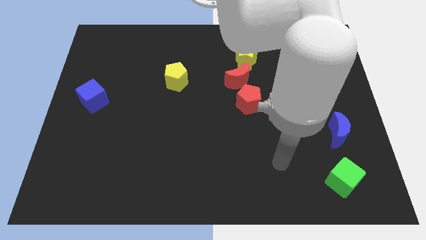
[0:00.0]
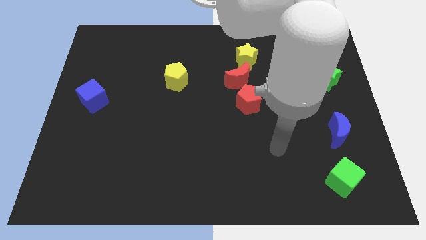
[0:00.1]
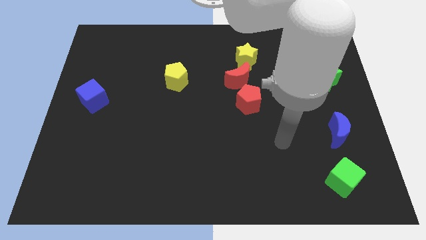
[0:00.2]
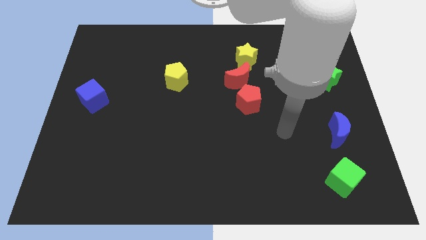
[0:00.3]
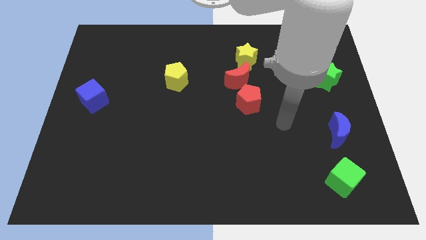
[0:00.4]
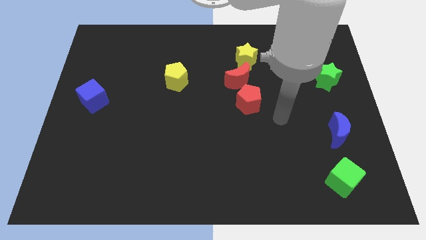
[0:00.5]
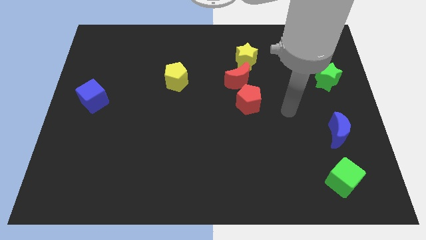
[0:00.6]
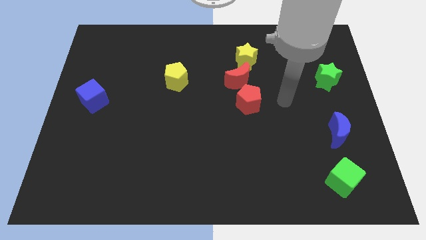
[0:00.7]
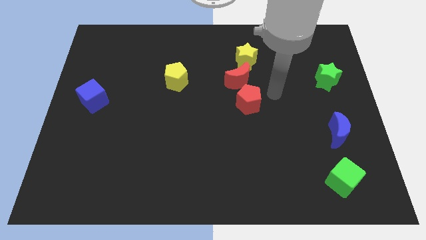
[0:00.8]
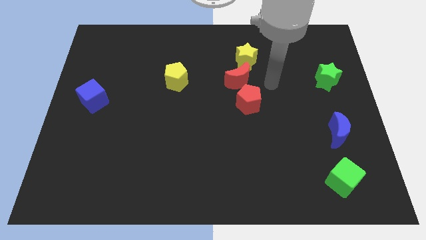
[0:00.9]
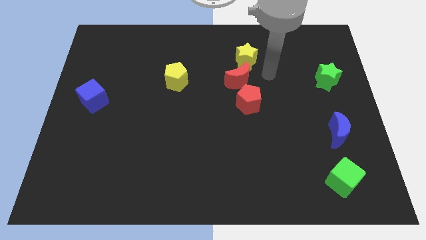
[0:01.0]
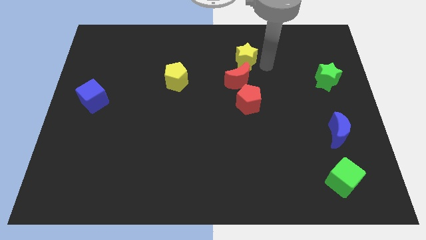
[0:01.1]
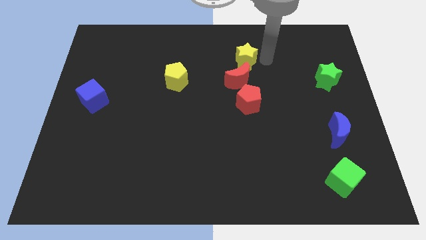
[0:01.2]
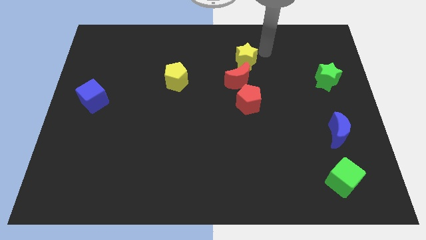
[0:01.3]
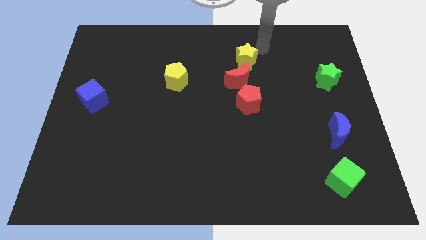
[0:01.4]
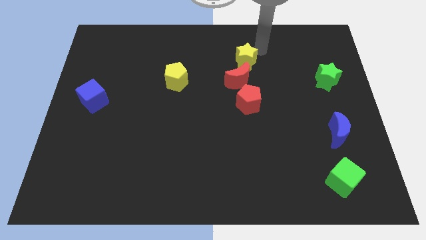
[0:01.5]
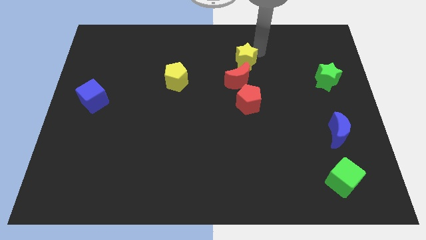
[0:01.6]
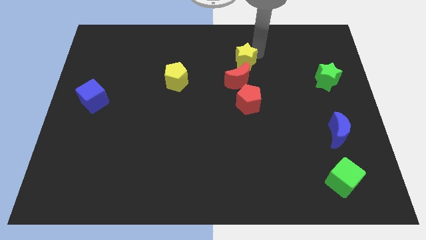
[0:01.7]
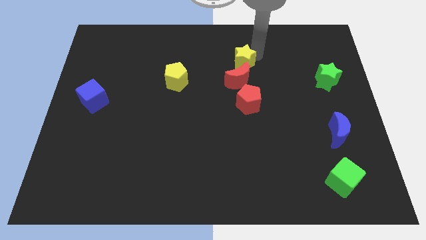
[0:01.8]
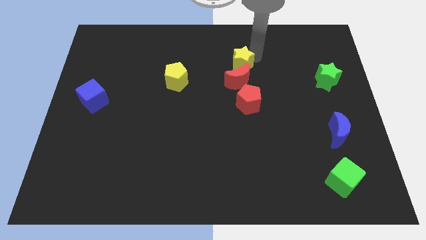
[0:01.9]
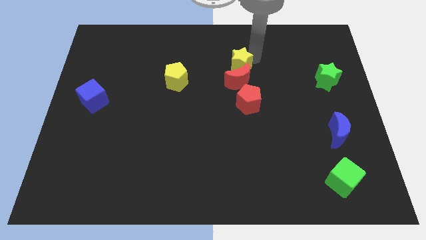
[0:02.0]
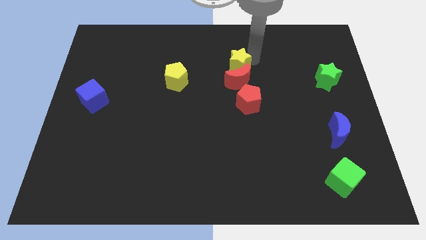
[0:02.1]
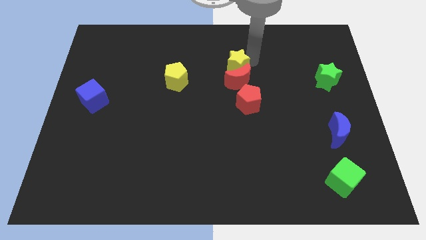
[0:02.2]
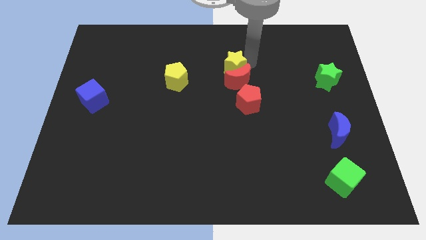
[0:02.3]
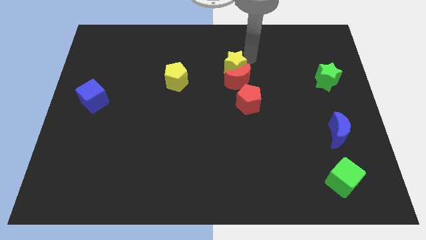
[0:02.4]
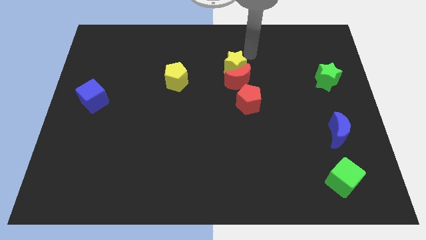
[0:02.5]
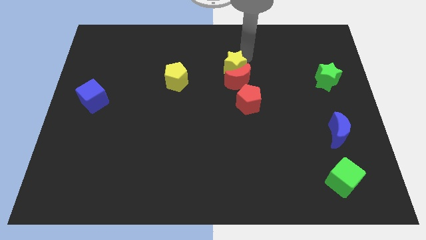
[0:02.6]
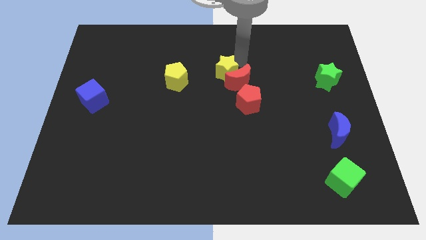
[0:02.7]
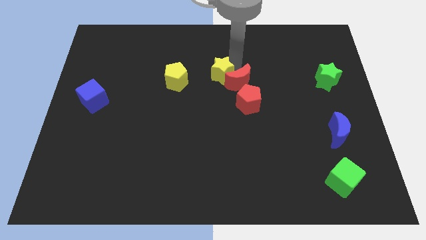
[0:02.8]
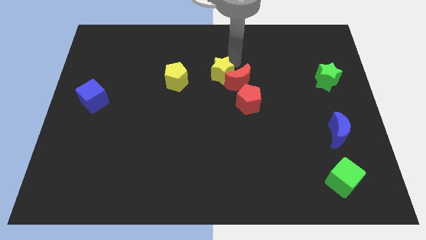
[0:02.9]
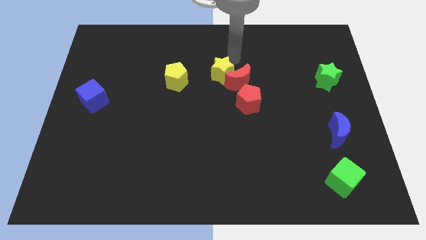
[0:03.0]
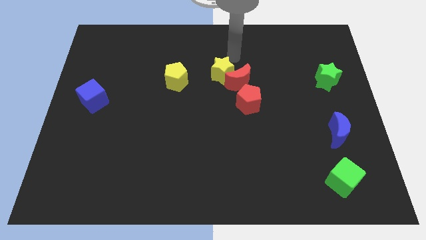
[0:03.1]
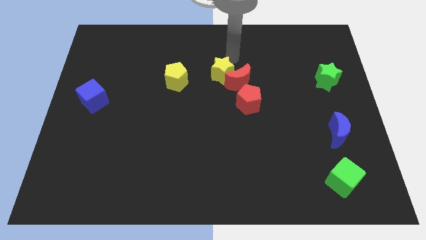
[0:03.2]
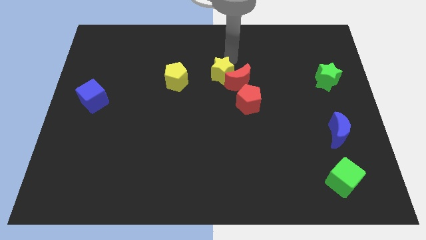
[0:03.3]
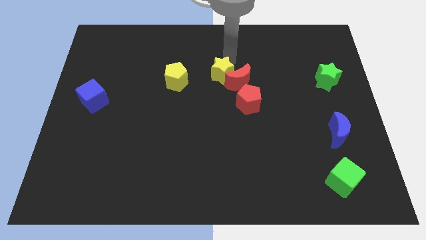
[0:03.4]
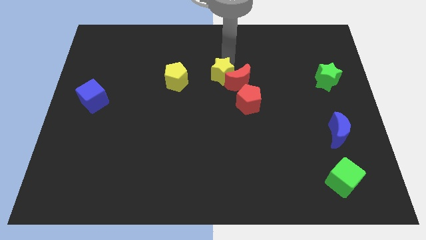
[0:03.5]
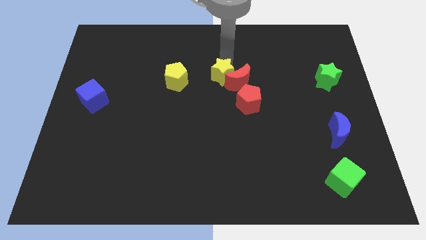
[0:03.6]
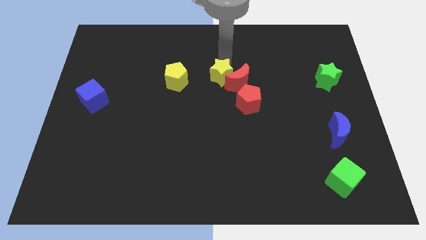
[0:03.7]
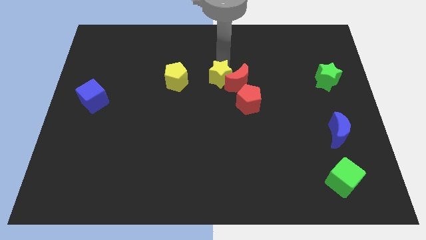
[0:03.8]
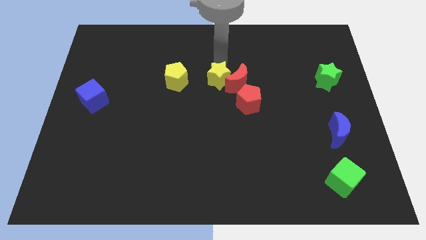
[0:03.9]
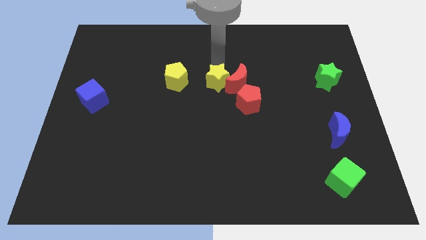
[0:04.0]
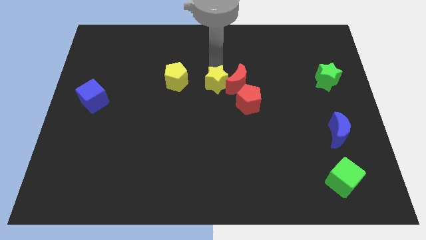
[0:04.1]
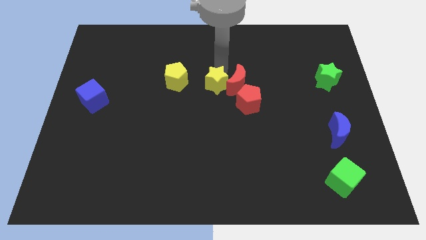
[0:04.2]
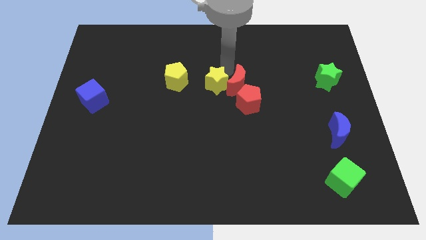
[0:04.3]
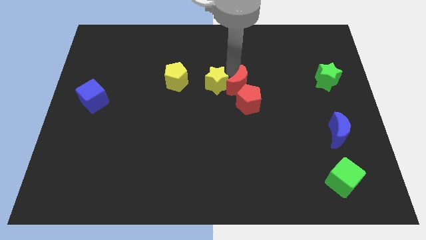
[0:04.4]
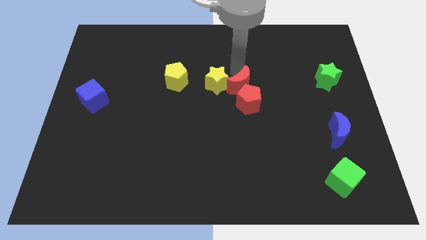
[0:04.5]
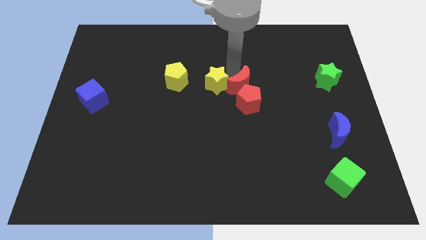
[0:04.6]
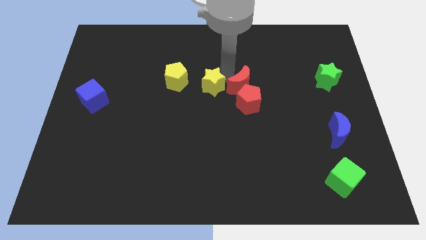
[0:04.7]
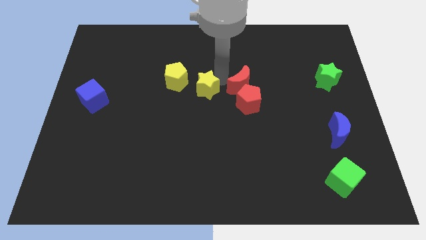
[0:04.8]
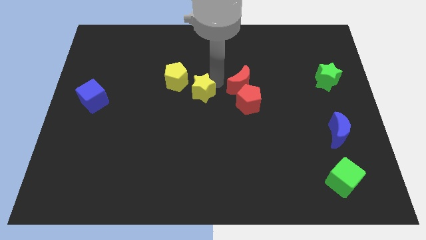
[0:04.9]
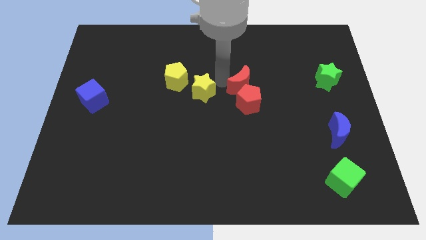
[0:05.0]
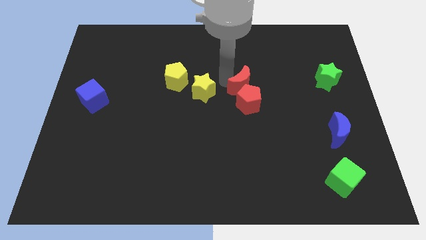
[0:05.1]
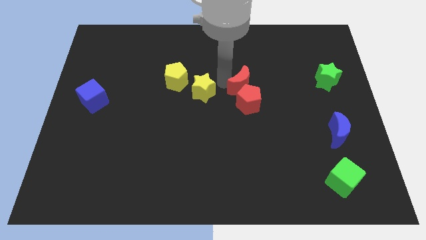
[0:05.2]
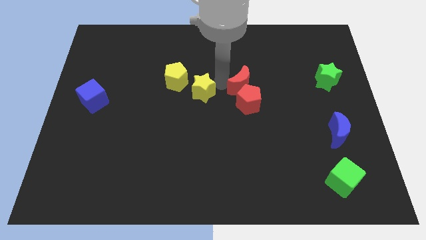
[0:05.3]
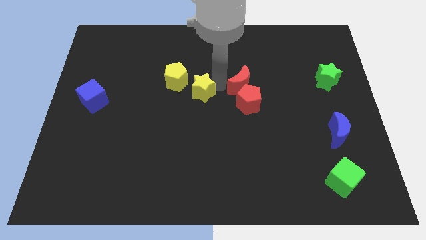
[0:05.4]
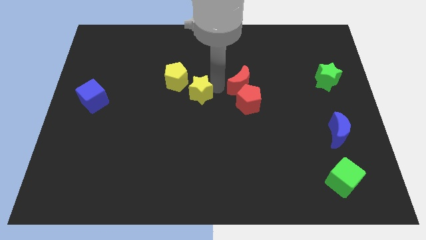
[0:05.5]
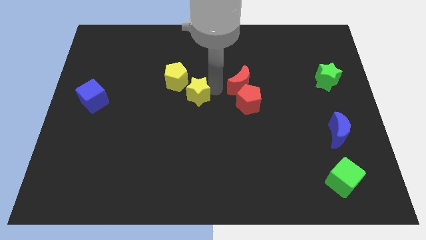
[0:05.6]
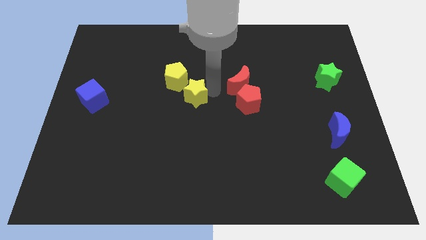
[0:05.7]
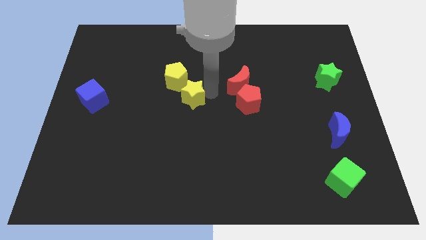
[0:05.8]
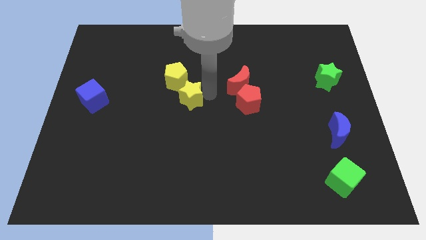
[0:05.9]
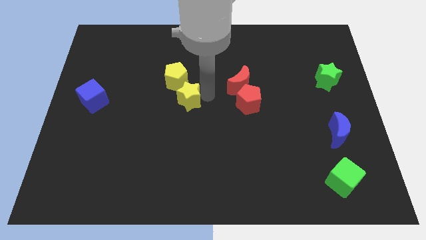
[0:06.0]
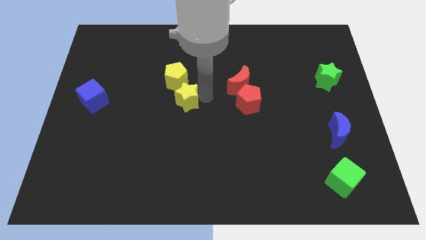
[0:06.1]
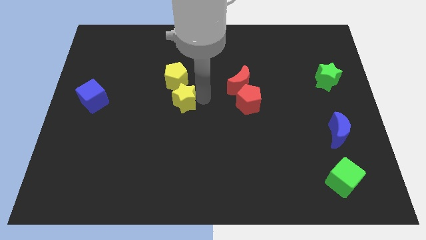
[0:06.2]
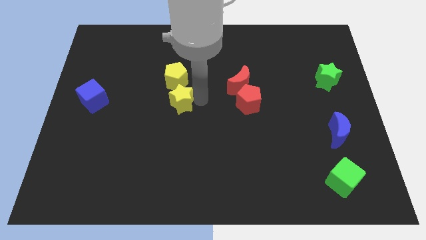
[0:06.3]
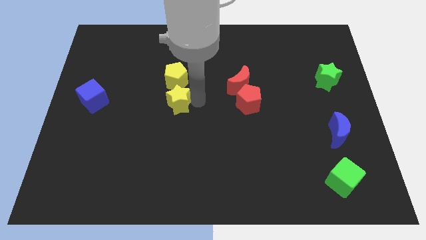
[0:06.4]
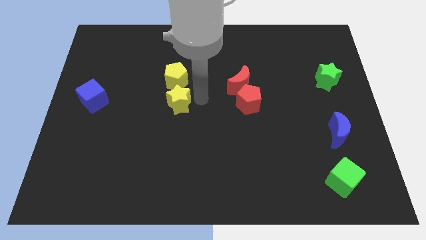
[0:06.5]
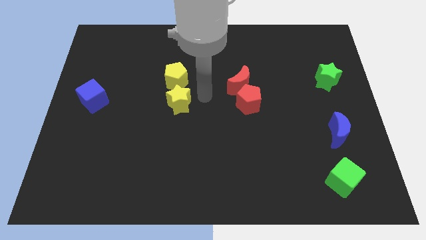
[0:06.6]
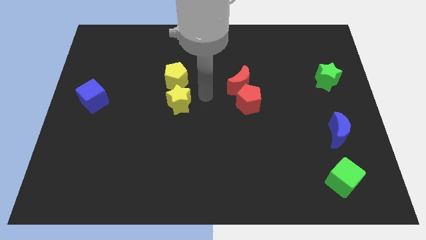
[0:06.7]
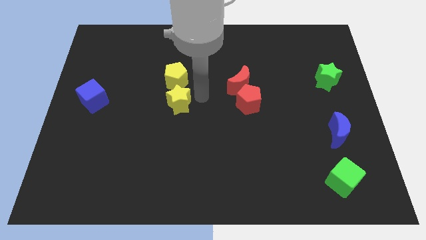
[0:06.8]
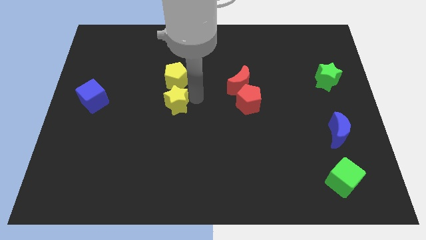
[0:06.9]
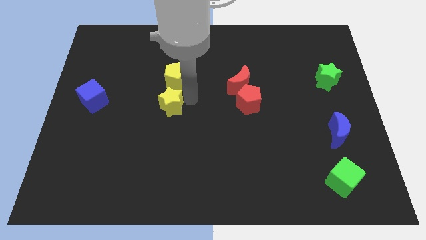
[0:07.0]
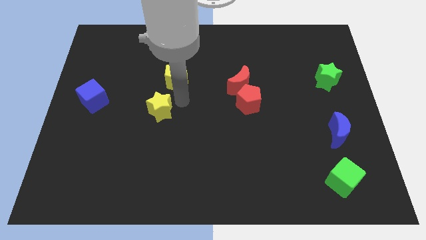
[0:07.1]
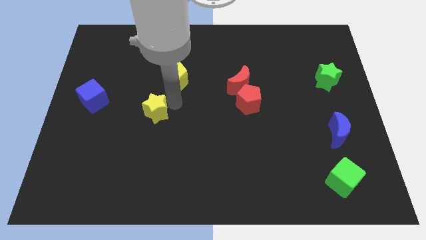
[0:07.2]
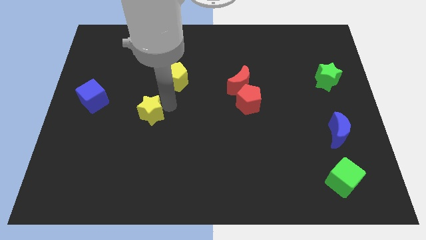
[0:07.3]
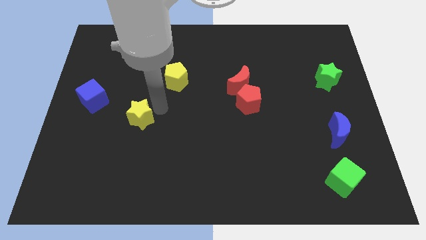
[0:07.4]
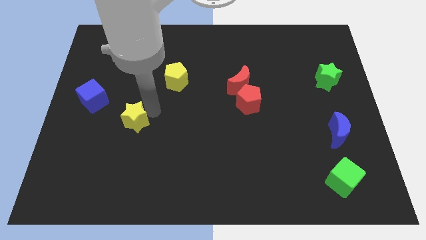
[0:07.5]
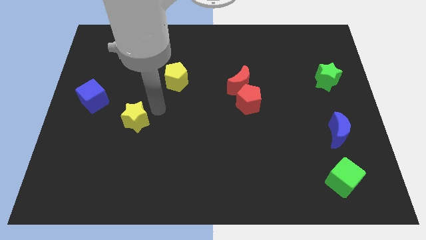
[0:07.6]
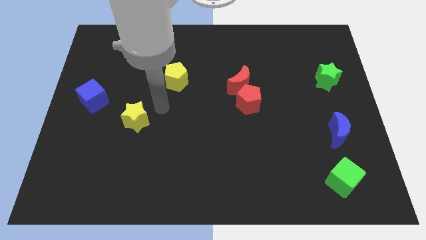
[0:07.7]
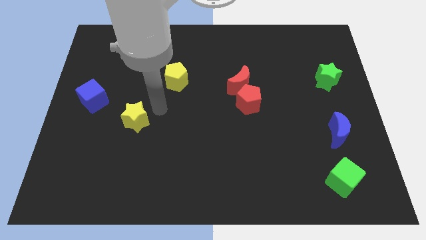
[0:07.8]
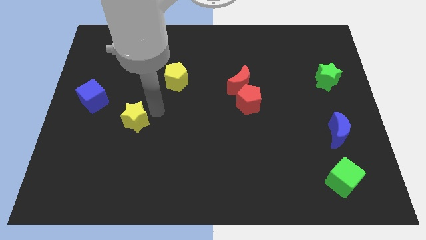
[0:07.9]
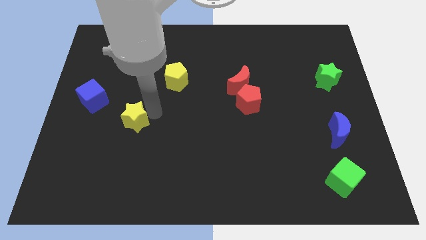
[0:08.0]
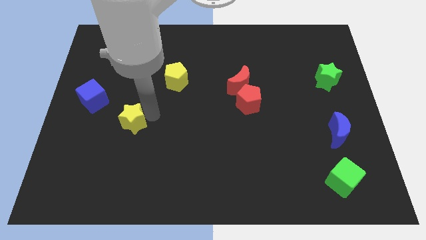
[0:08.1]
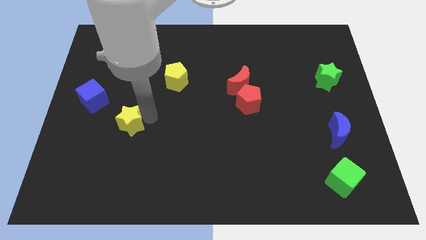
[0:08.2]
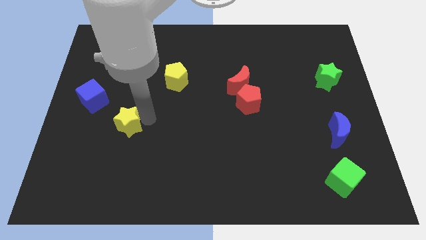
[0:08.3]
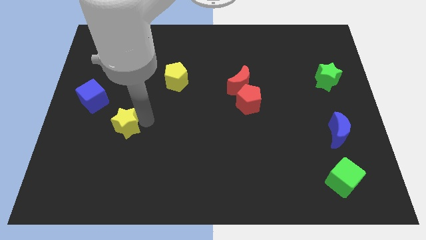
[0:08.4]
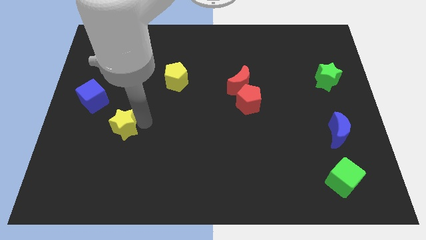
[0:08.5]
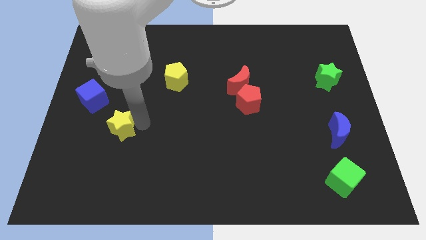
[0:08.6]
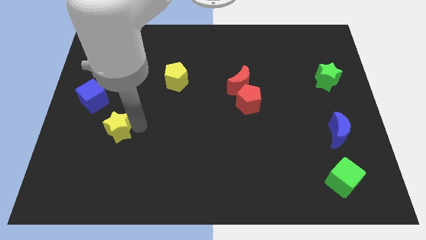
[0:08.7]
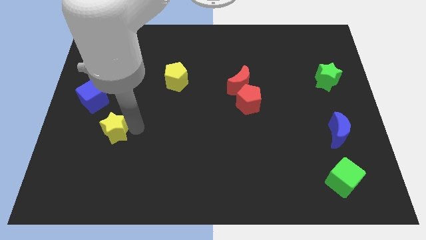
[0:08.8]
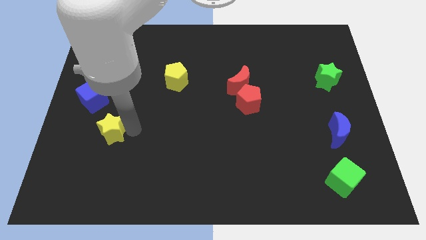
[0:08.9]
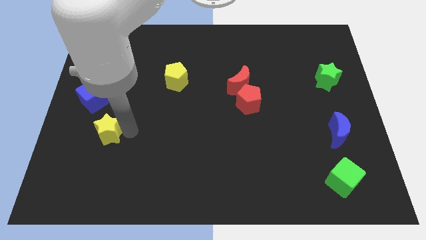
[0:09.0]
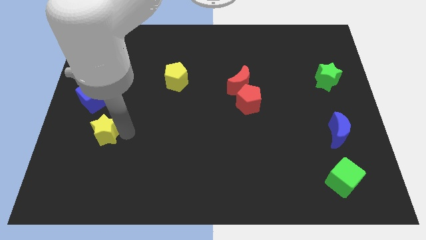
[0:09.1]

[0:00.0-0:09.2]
move the yellow star below the blue cube
